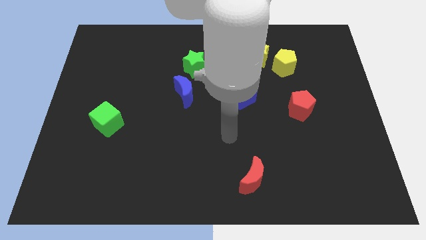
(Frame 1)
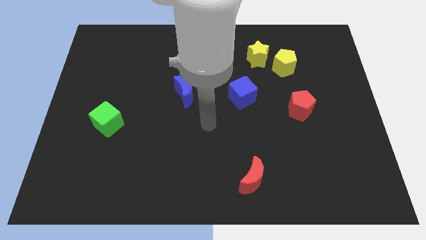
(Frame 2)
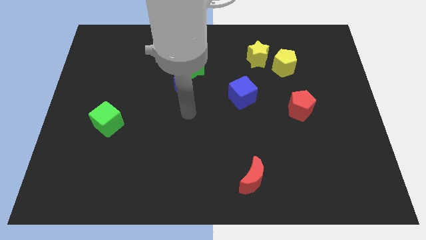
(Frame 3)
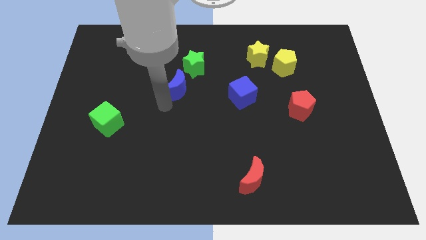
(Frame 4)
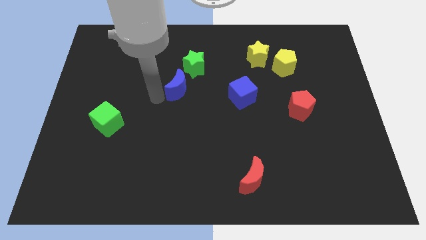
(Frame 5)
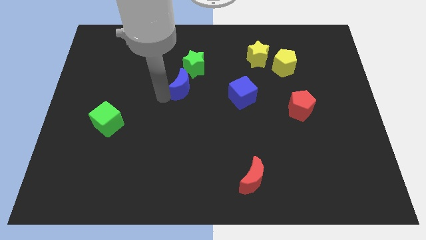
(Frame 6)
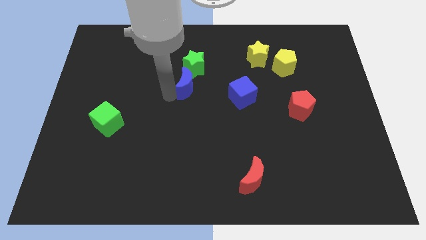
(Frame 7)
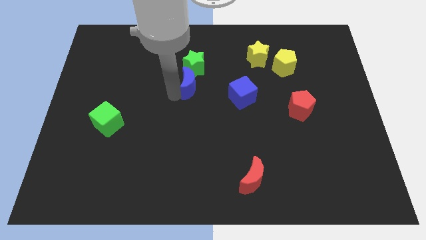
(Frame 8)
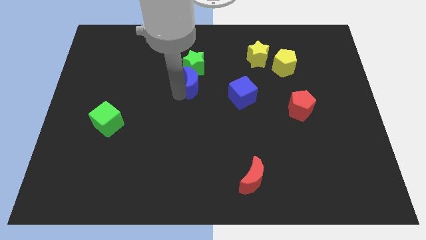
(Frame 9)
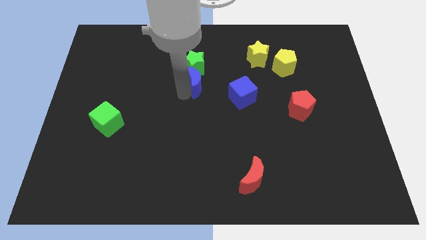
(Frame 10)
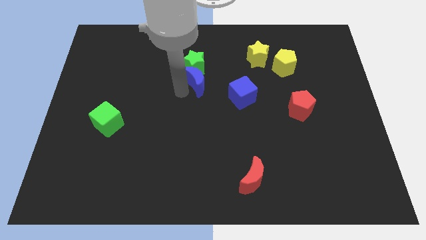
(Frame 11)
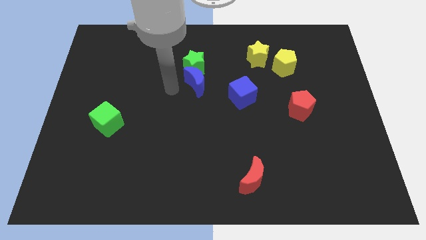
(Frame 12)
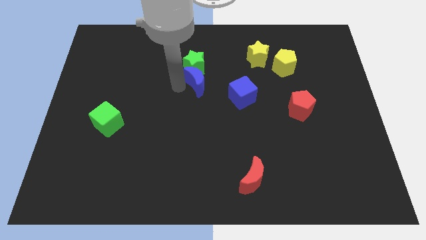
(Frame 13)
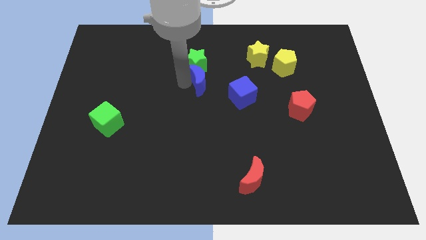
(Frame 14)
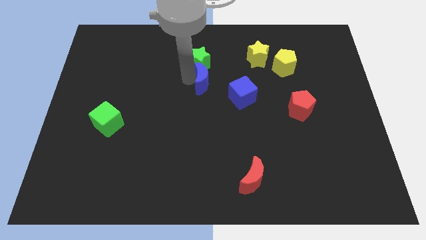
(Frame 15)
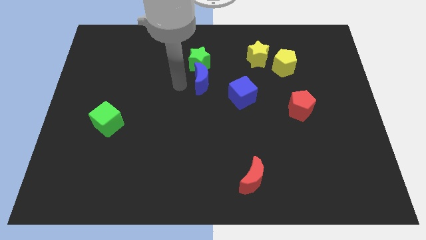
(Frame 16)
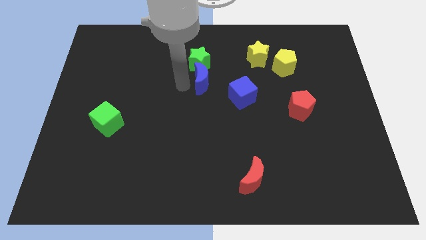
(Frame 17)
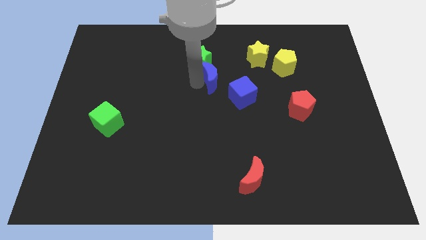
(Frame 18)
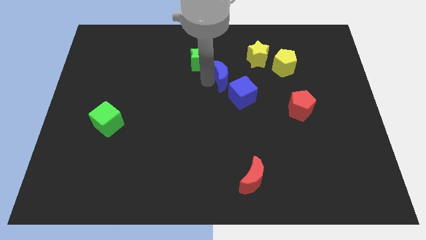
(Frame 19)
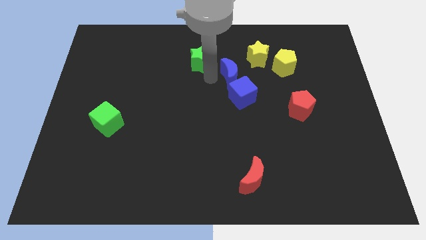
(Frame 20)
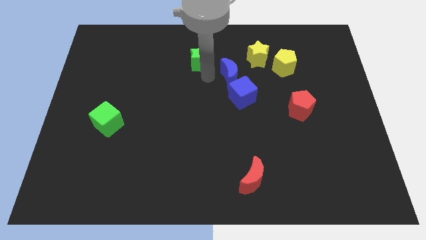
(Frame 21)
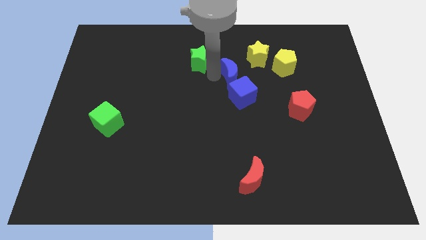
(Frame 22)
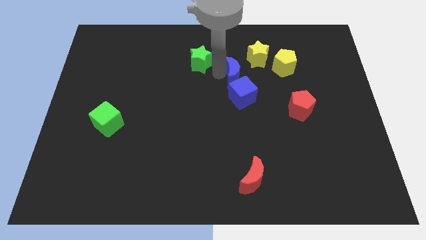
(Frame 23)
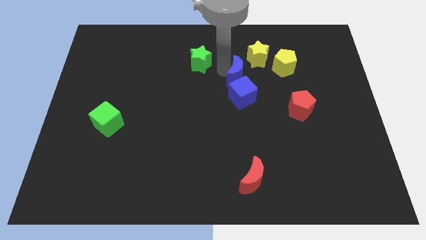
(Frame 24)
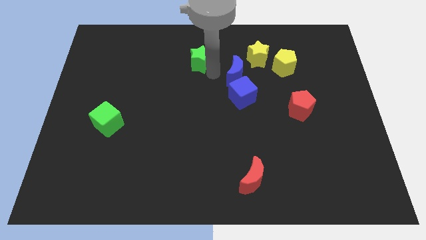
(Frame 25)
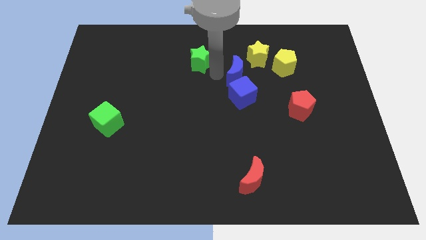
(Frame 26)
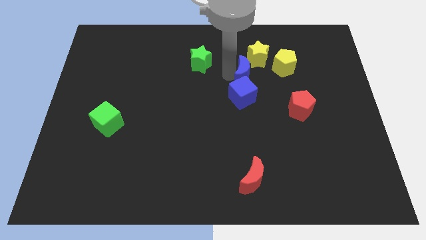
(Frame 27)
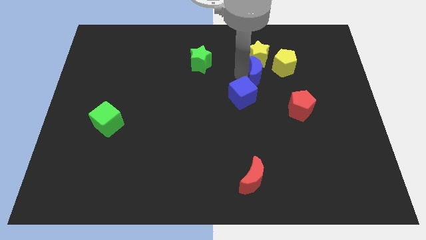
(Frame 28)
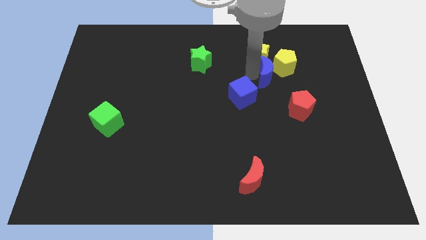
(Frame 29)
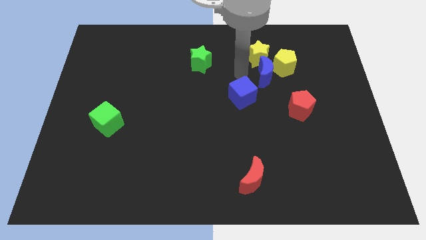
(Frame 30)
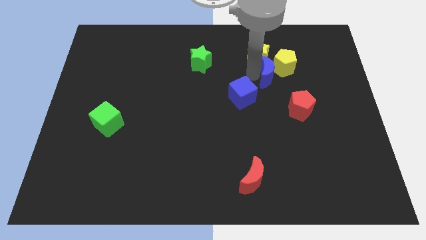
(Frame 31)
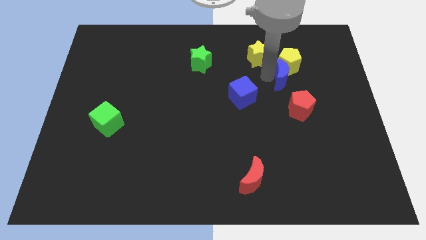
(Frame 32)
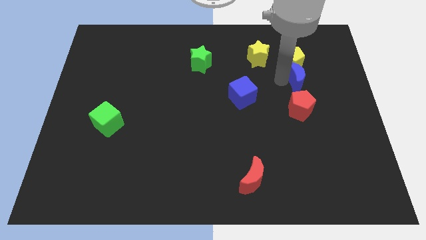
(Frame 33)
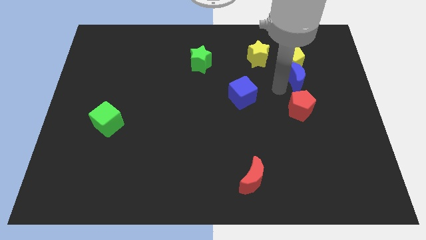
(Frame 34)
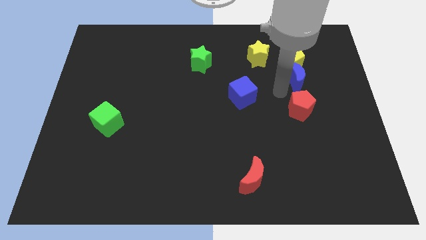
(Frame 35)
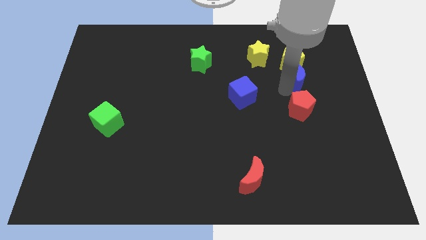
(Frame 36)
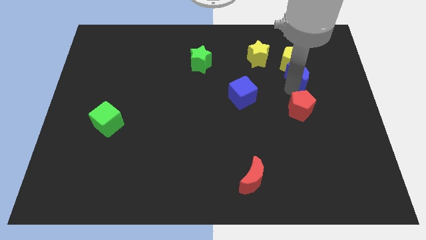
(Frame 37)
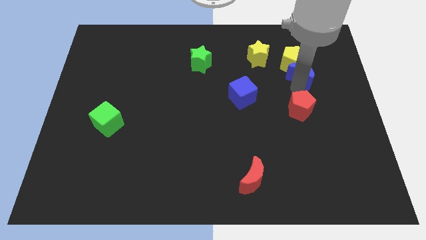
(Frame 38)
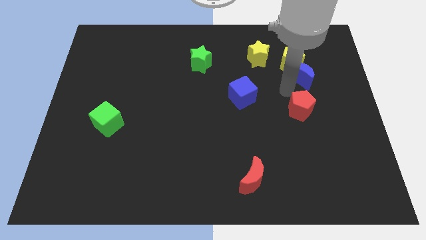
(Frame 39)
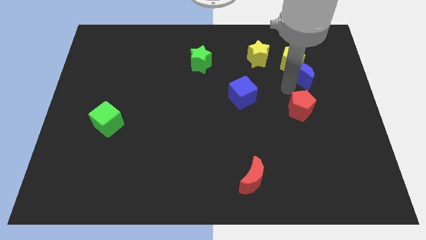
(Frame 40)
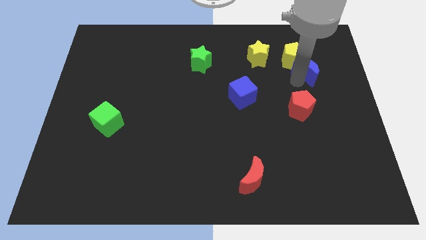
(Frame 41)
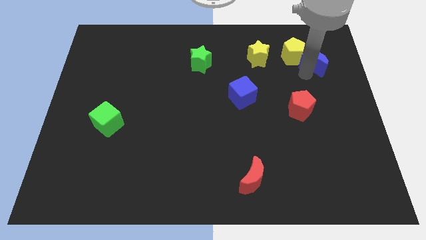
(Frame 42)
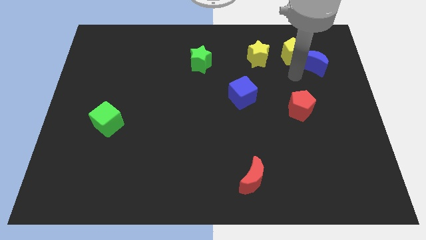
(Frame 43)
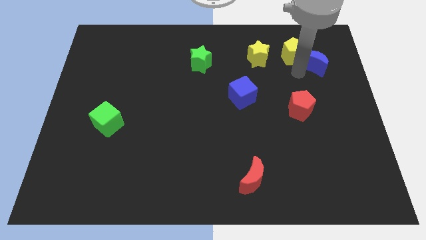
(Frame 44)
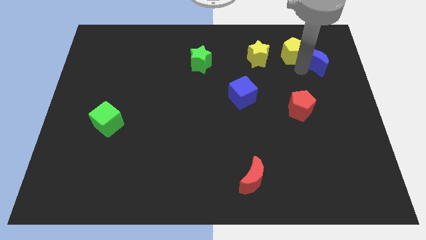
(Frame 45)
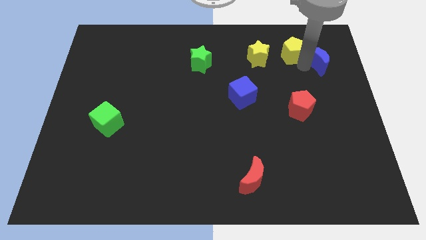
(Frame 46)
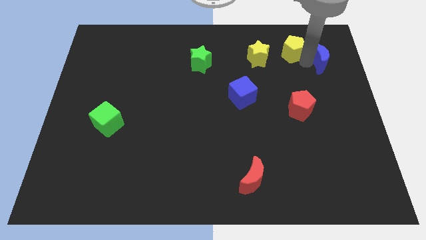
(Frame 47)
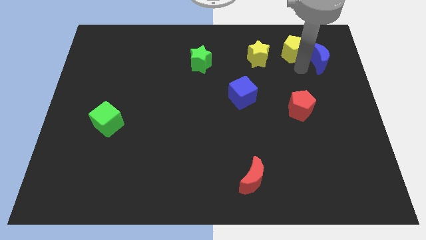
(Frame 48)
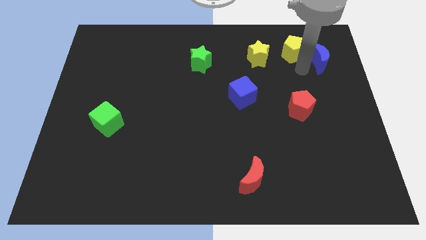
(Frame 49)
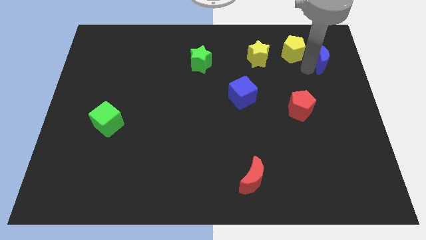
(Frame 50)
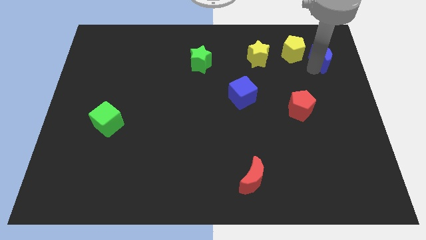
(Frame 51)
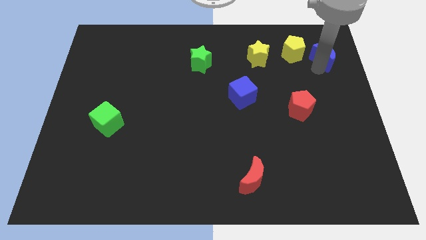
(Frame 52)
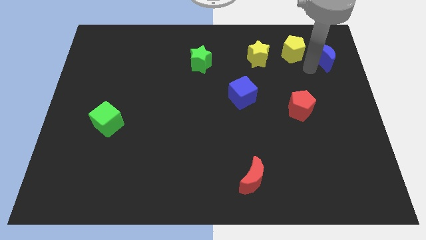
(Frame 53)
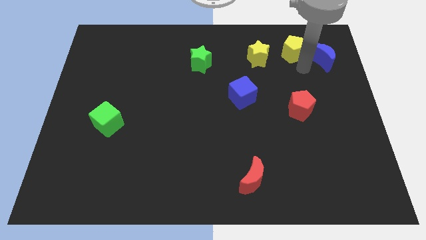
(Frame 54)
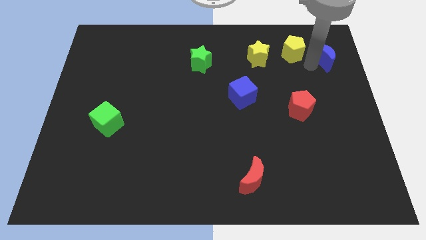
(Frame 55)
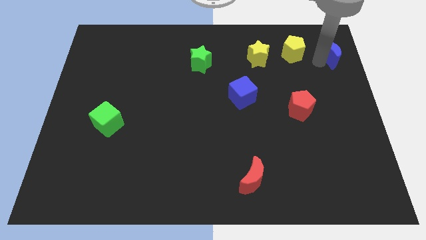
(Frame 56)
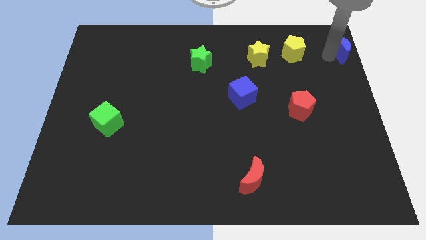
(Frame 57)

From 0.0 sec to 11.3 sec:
move the blue moon to the upper right corner
